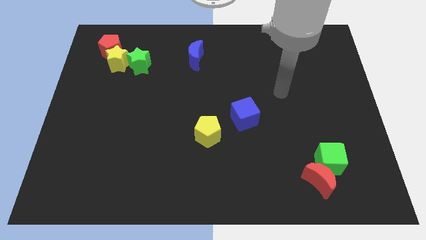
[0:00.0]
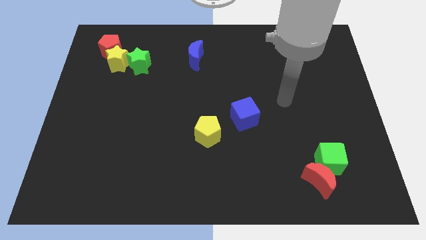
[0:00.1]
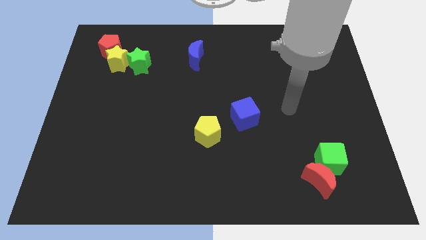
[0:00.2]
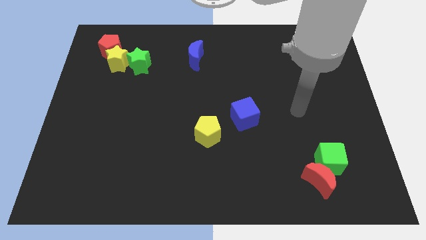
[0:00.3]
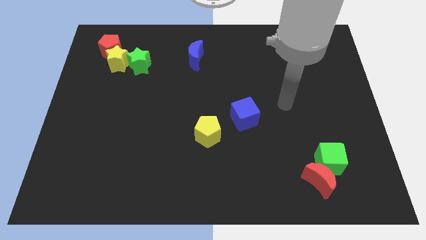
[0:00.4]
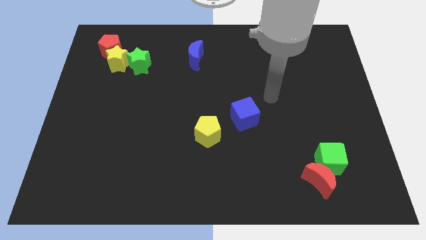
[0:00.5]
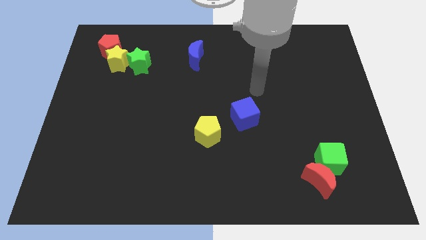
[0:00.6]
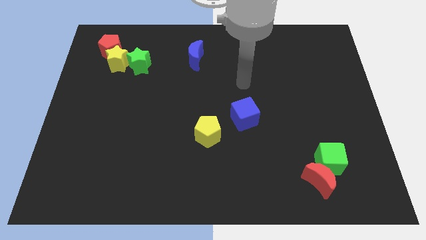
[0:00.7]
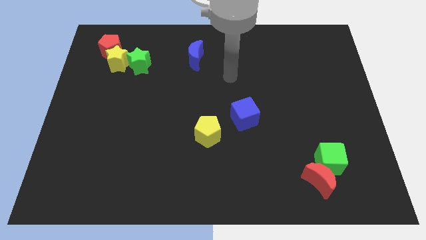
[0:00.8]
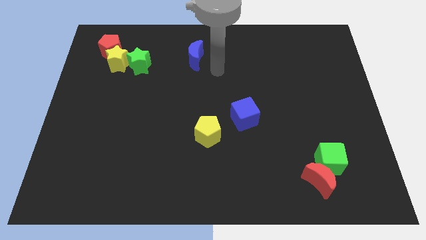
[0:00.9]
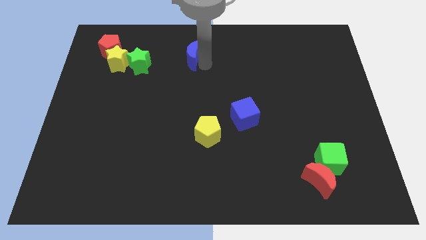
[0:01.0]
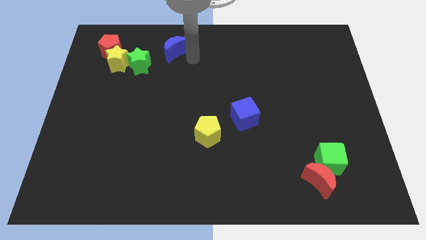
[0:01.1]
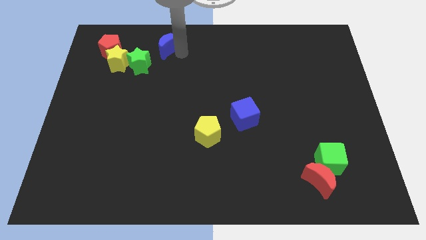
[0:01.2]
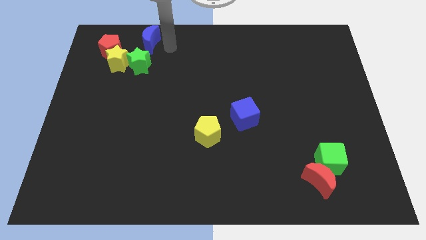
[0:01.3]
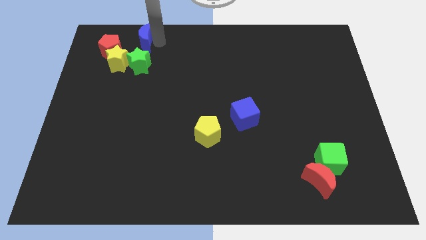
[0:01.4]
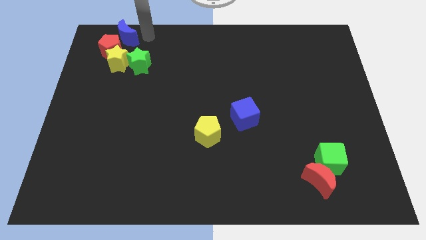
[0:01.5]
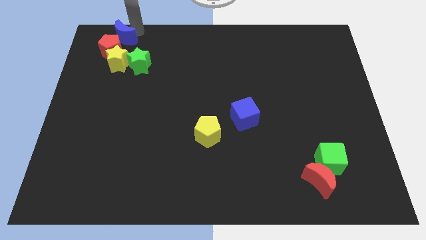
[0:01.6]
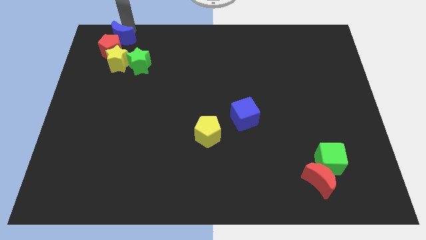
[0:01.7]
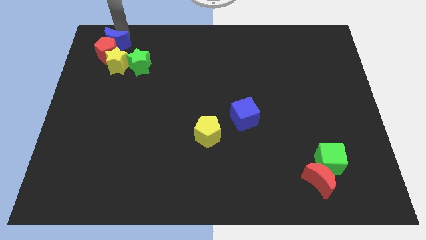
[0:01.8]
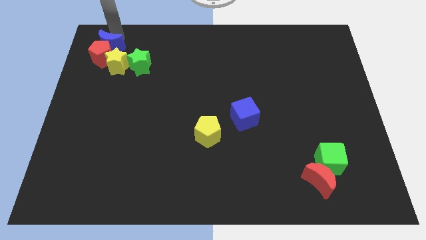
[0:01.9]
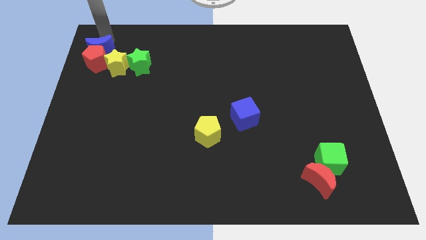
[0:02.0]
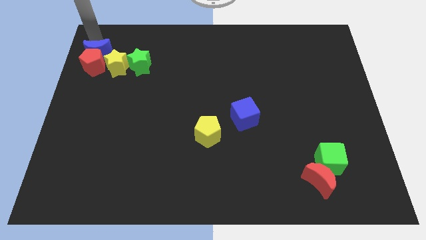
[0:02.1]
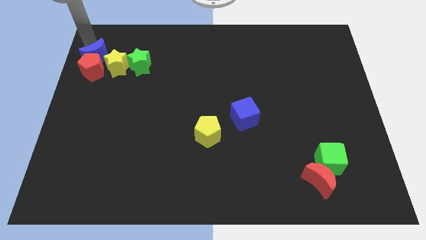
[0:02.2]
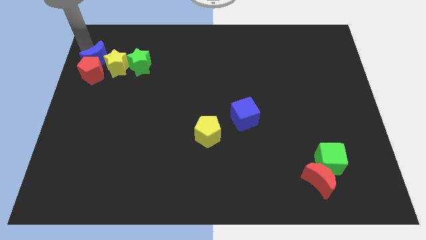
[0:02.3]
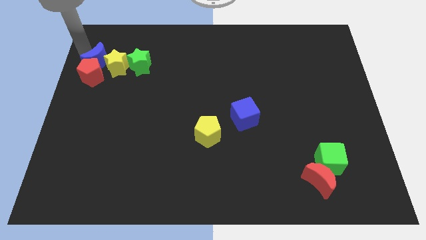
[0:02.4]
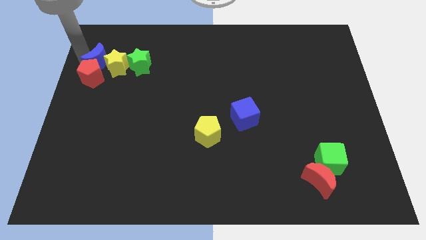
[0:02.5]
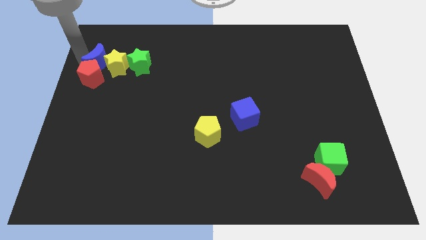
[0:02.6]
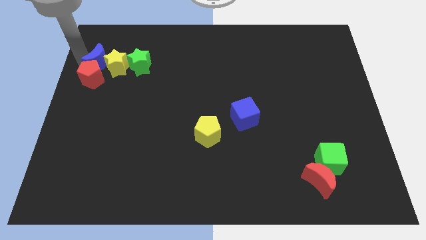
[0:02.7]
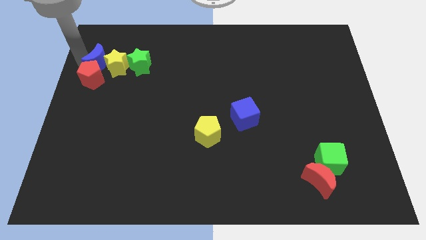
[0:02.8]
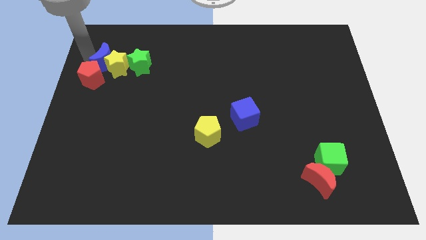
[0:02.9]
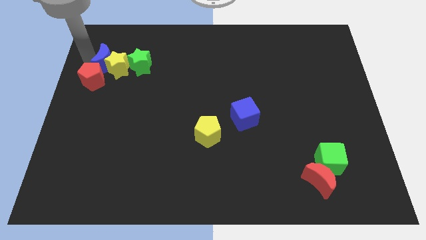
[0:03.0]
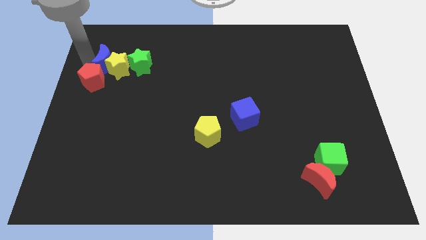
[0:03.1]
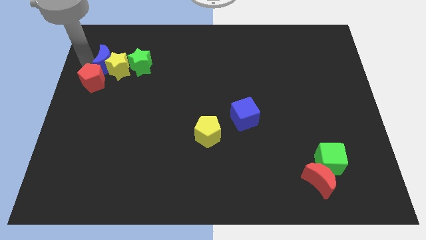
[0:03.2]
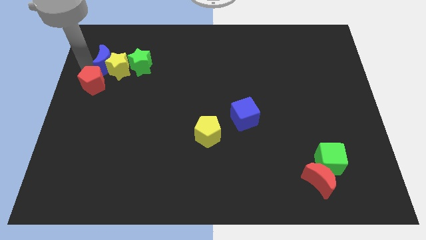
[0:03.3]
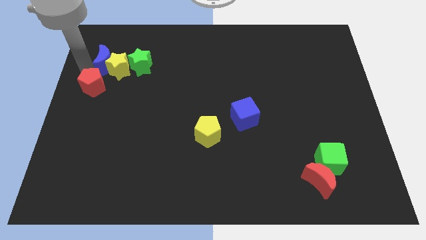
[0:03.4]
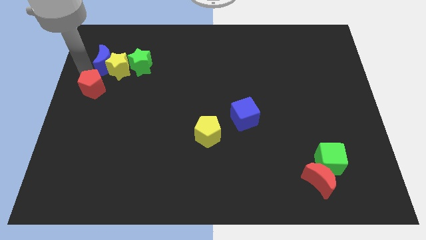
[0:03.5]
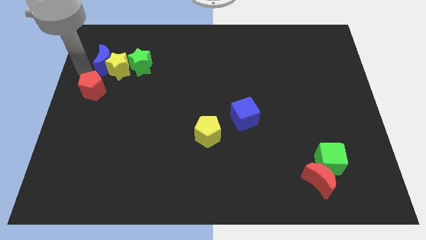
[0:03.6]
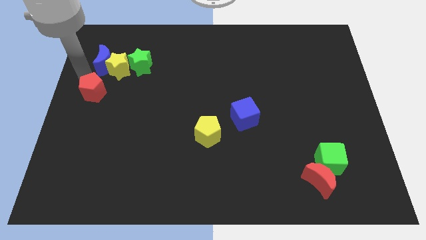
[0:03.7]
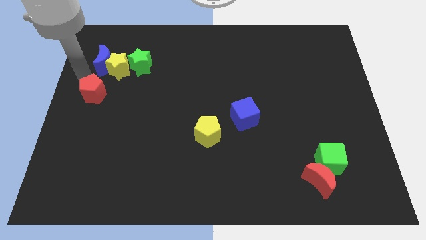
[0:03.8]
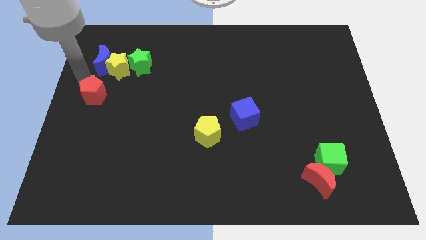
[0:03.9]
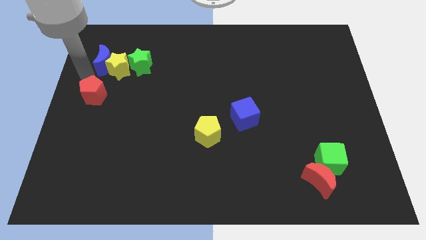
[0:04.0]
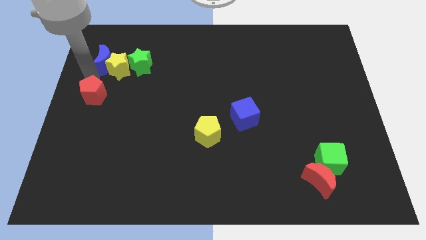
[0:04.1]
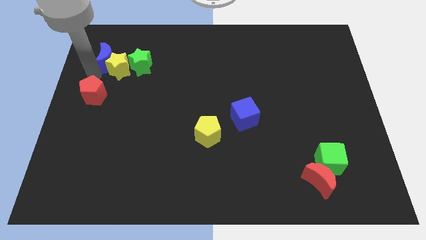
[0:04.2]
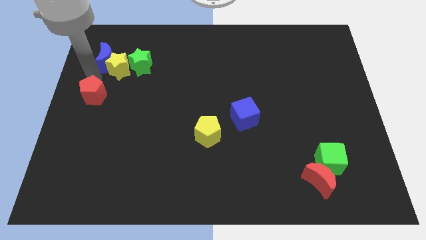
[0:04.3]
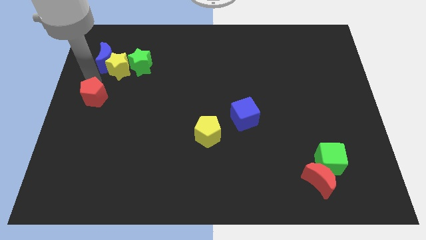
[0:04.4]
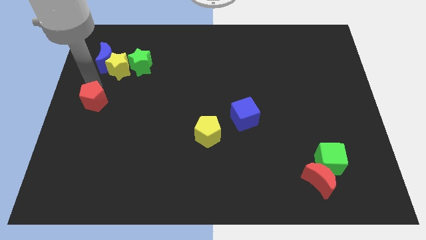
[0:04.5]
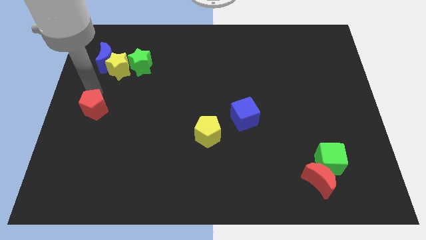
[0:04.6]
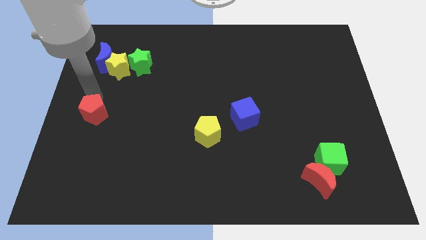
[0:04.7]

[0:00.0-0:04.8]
slide the red pentagon down

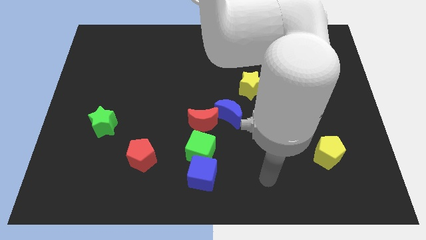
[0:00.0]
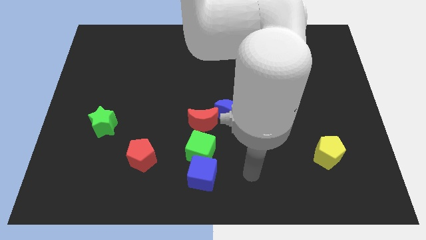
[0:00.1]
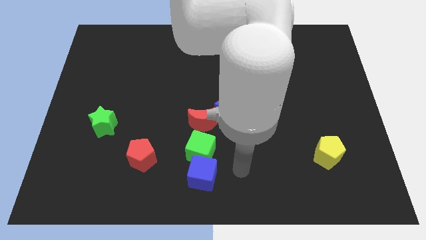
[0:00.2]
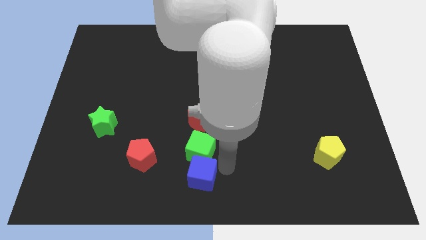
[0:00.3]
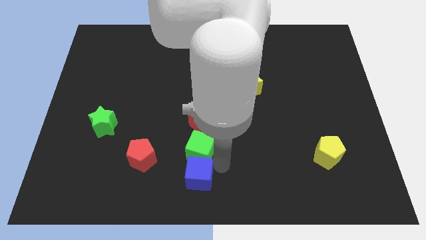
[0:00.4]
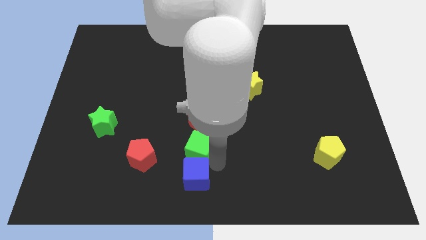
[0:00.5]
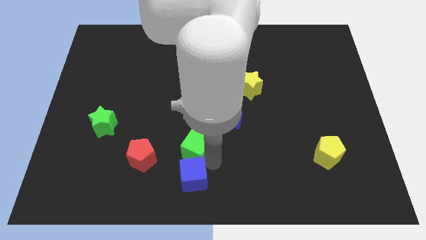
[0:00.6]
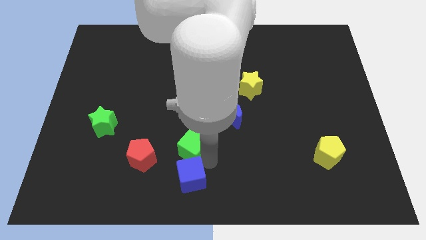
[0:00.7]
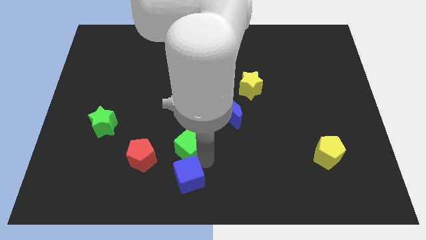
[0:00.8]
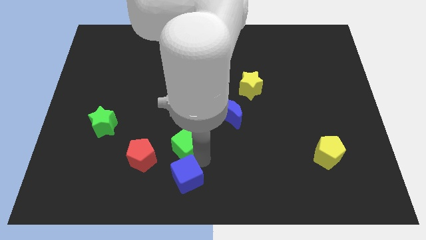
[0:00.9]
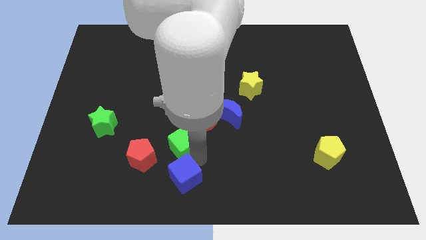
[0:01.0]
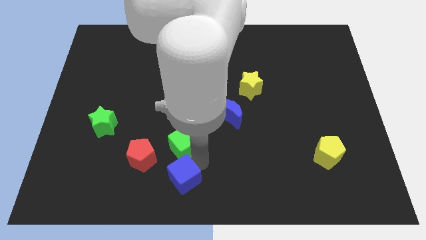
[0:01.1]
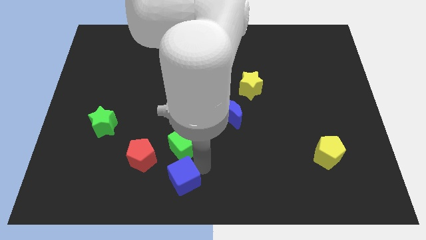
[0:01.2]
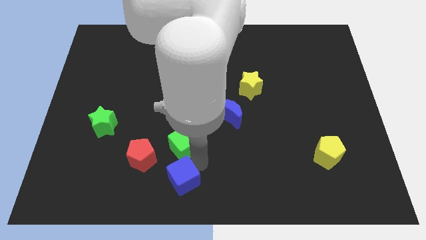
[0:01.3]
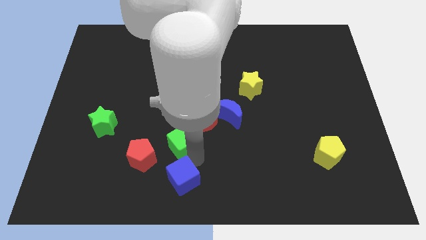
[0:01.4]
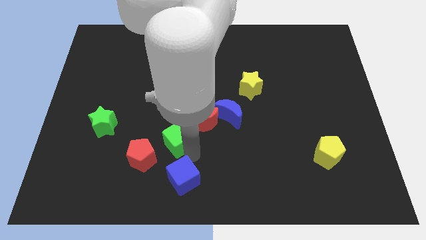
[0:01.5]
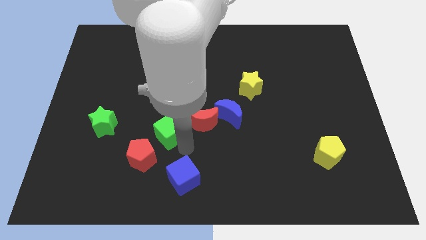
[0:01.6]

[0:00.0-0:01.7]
move the green cube a little up and then left

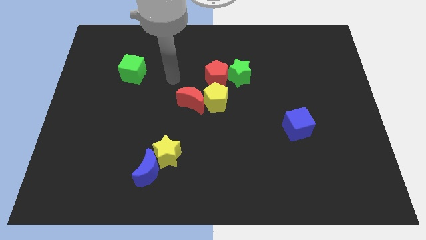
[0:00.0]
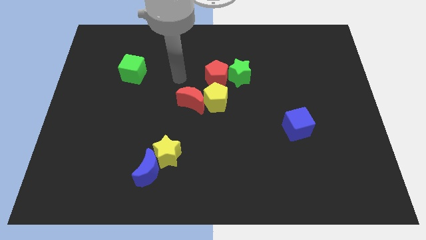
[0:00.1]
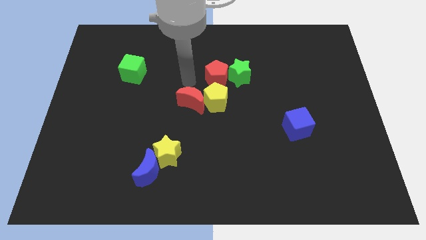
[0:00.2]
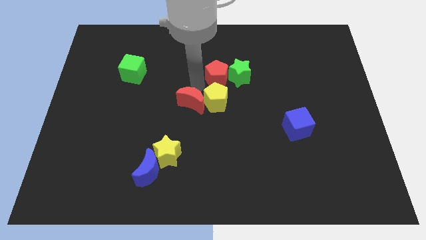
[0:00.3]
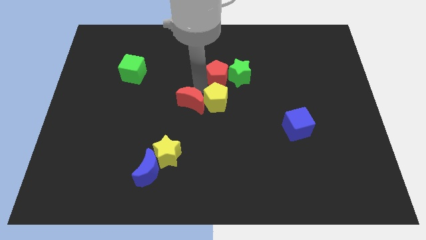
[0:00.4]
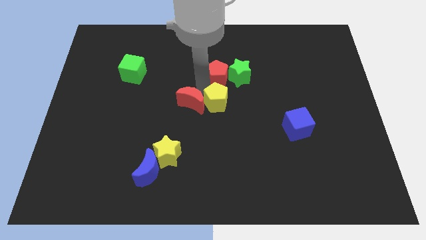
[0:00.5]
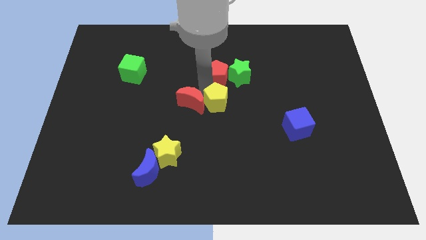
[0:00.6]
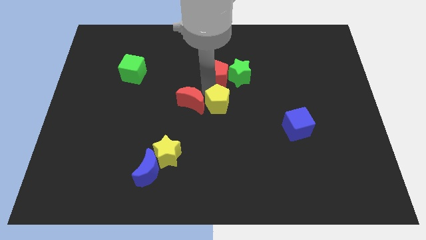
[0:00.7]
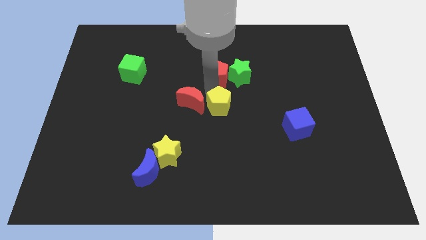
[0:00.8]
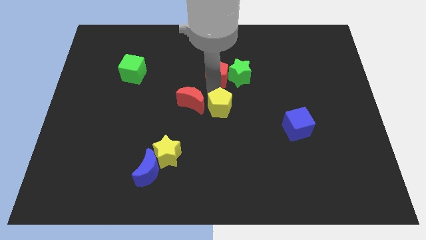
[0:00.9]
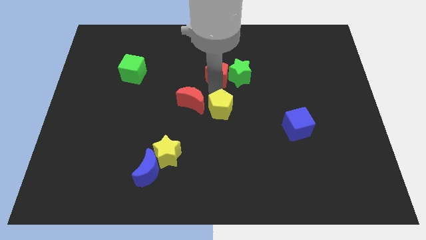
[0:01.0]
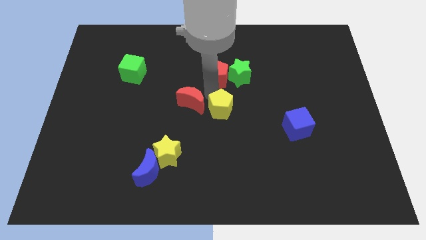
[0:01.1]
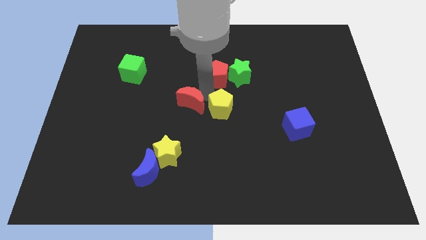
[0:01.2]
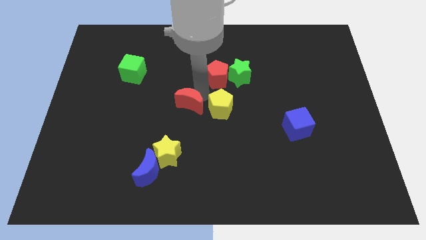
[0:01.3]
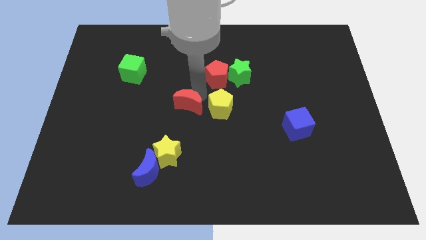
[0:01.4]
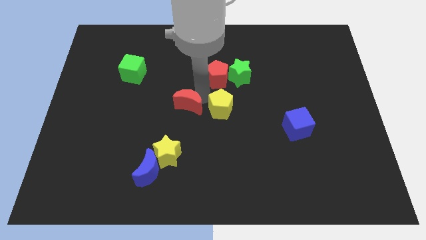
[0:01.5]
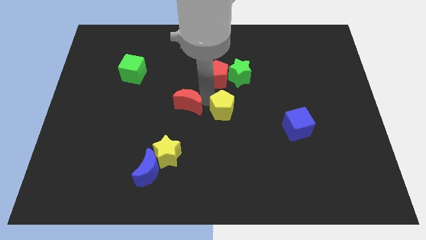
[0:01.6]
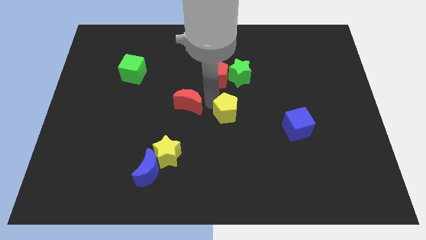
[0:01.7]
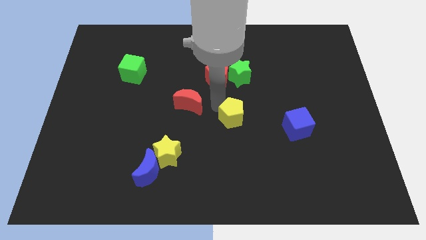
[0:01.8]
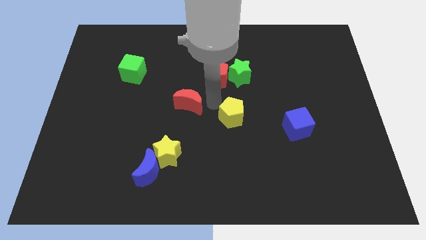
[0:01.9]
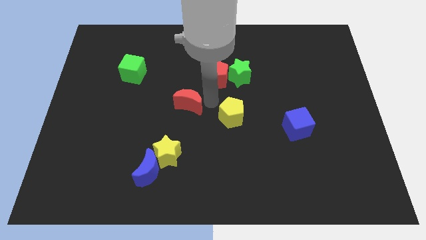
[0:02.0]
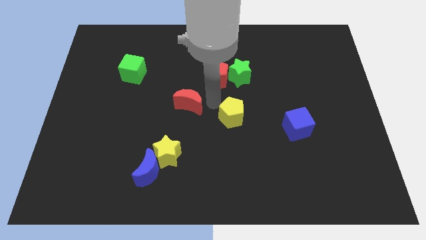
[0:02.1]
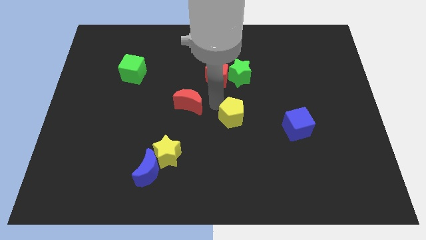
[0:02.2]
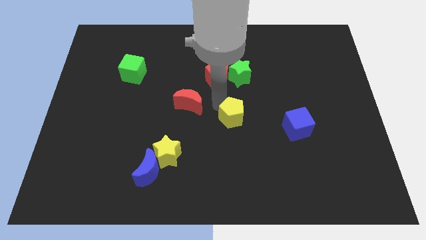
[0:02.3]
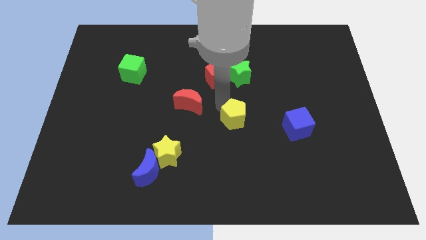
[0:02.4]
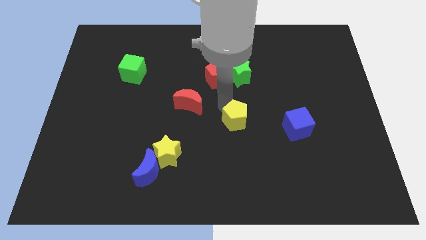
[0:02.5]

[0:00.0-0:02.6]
slightly slide the yellow pentagon diagonally downwards and right
